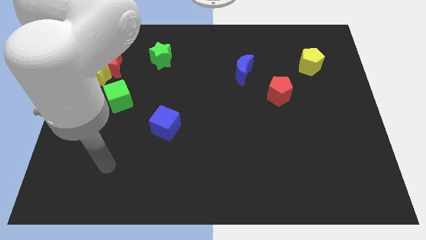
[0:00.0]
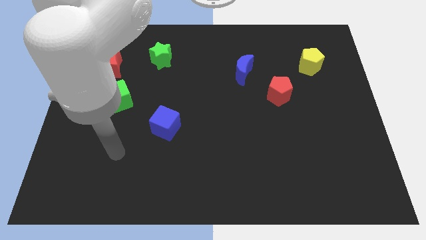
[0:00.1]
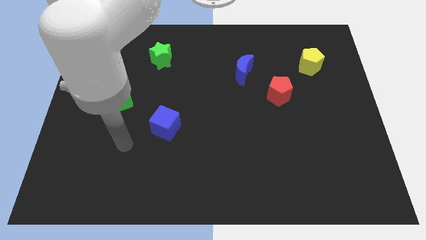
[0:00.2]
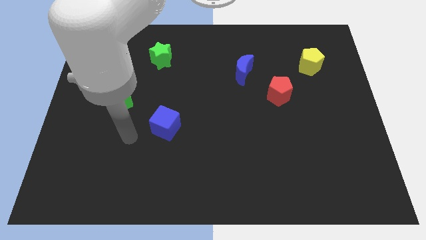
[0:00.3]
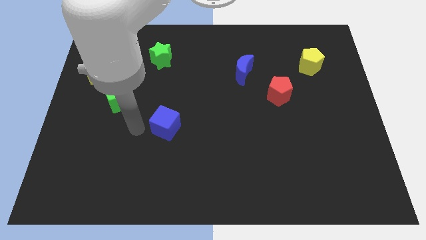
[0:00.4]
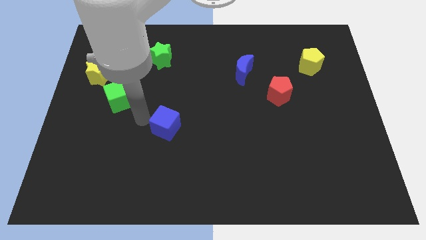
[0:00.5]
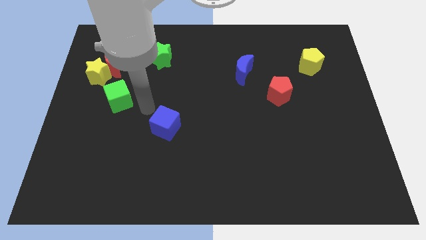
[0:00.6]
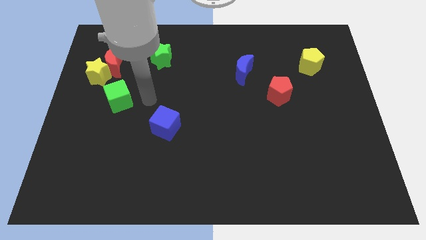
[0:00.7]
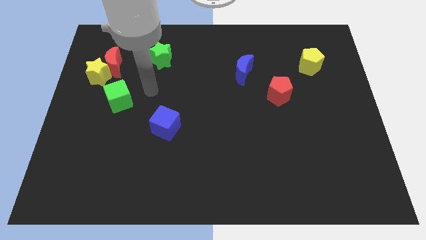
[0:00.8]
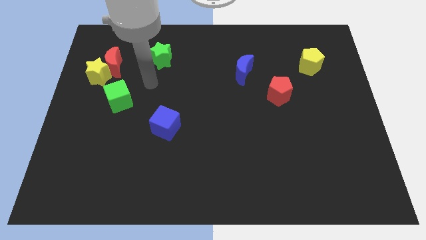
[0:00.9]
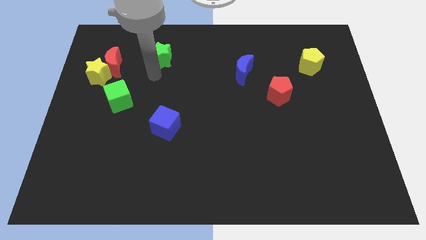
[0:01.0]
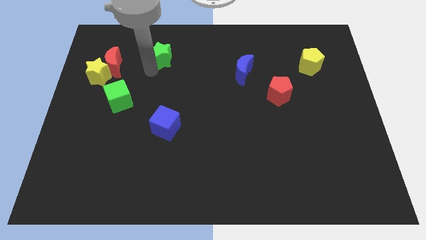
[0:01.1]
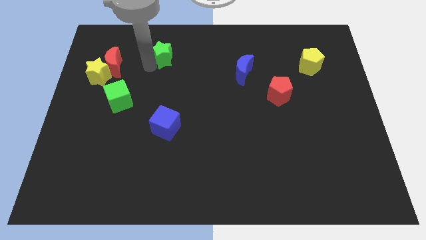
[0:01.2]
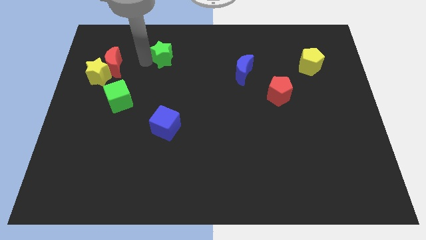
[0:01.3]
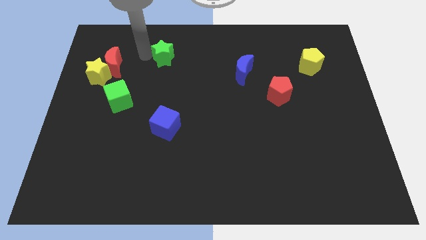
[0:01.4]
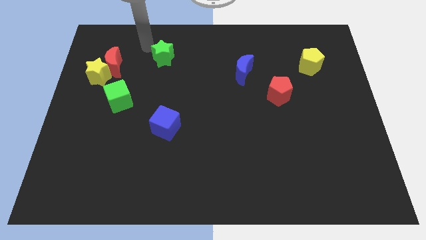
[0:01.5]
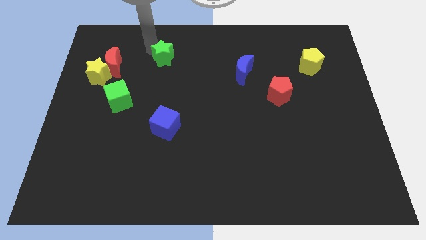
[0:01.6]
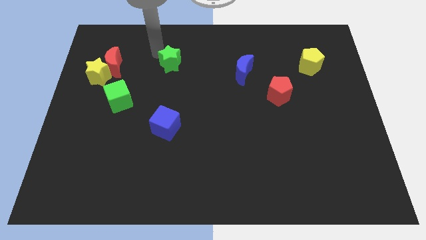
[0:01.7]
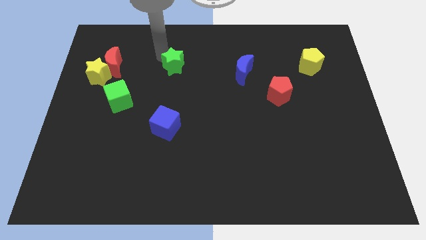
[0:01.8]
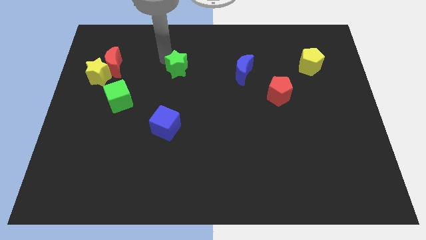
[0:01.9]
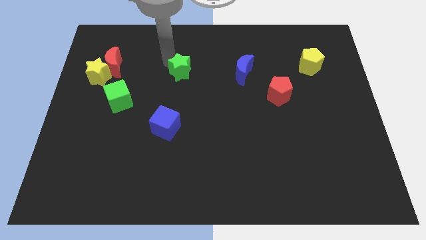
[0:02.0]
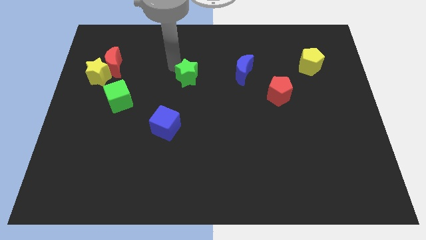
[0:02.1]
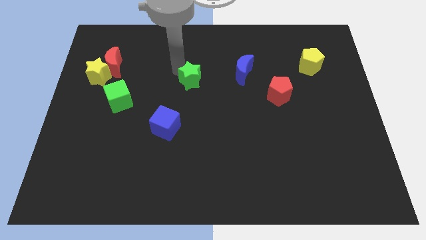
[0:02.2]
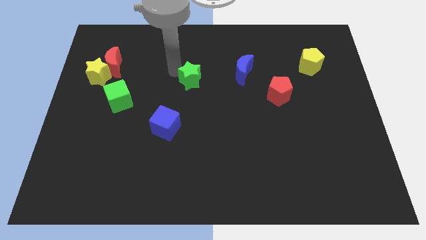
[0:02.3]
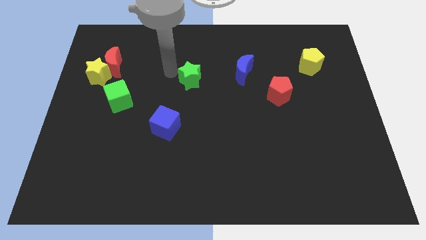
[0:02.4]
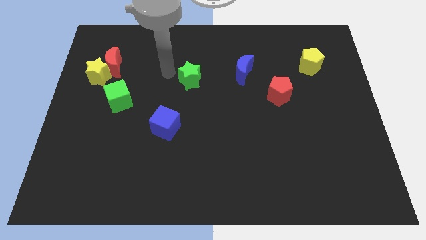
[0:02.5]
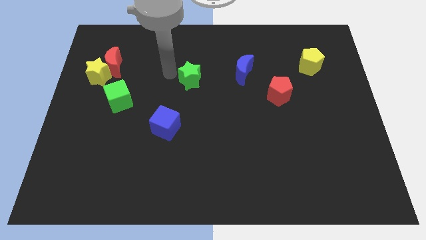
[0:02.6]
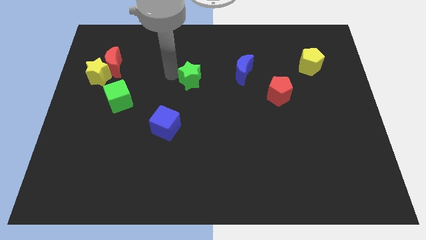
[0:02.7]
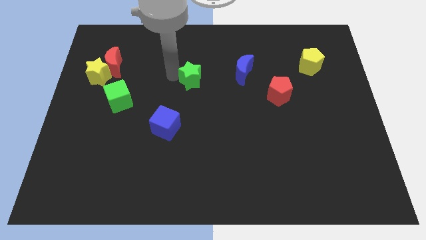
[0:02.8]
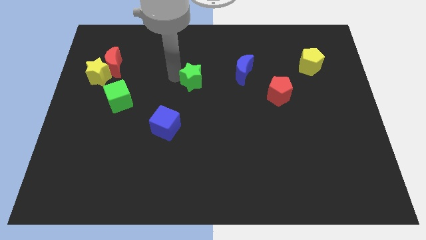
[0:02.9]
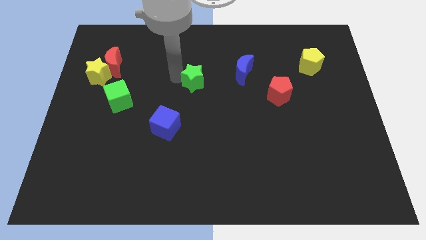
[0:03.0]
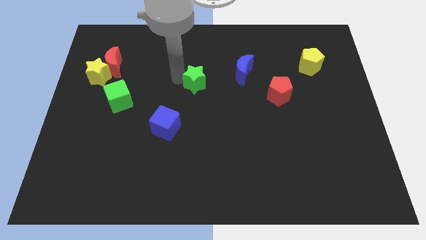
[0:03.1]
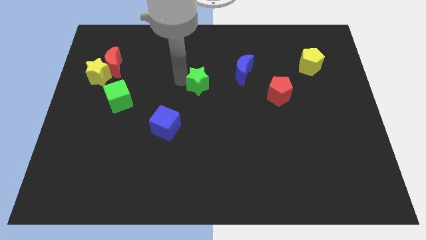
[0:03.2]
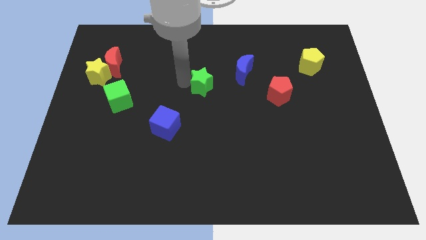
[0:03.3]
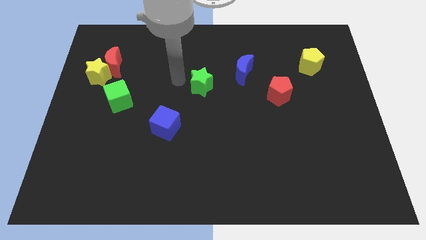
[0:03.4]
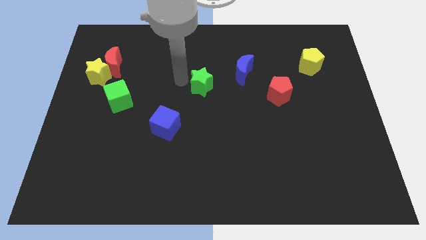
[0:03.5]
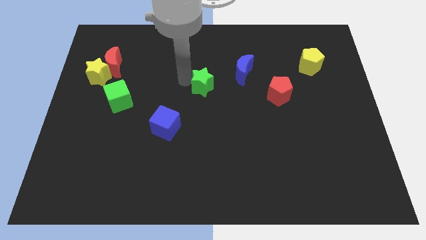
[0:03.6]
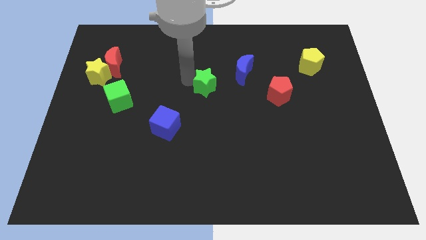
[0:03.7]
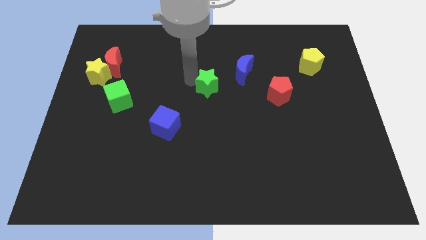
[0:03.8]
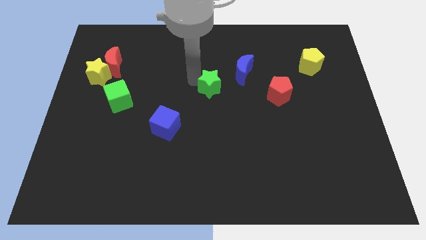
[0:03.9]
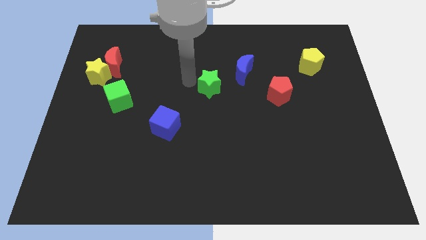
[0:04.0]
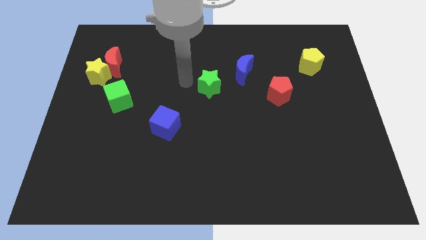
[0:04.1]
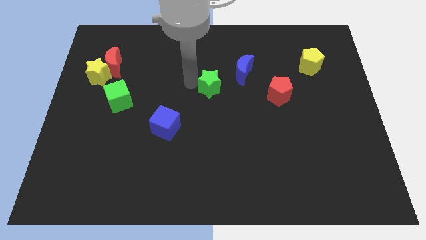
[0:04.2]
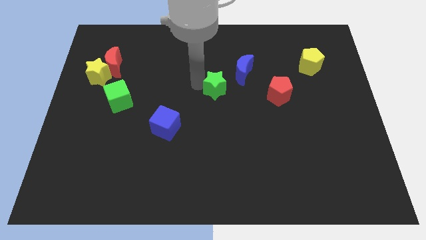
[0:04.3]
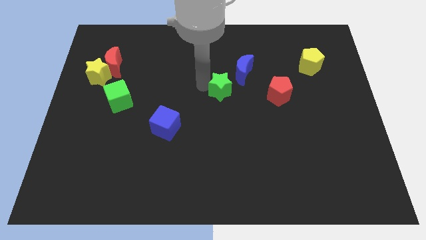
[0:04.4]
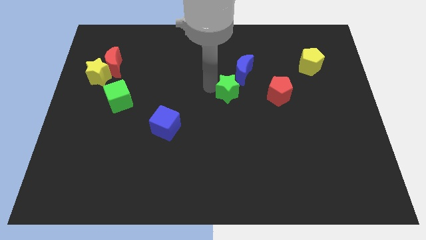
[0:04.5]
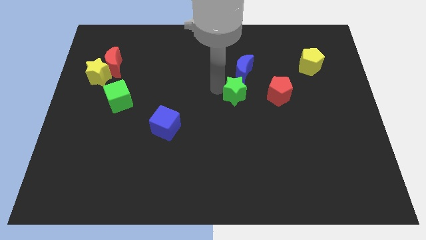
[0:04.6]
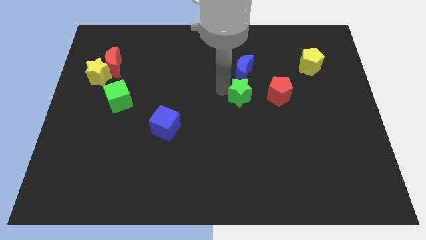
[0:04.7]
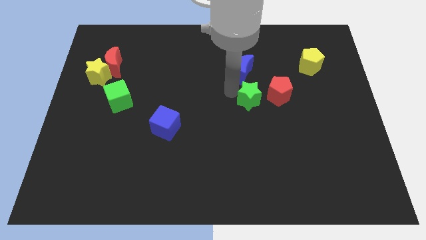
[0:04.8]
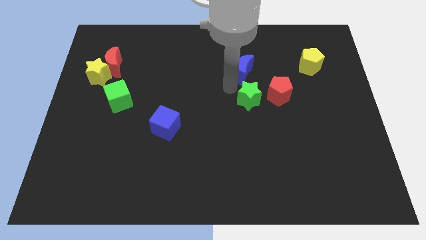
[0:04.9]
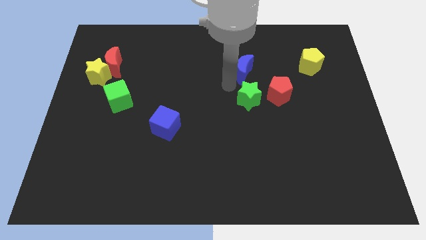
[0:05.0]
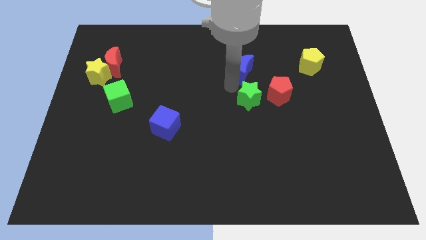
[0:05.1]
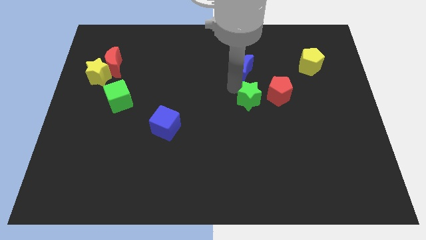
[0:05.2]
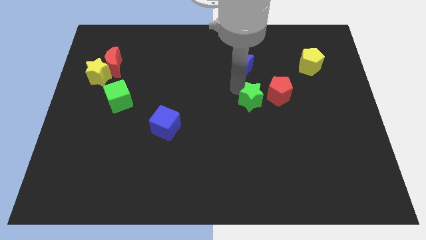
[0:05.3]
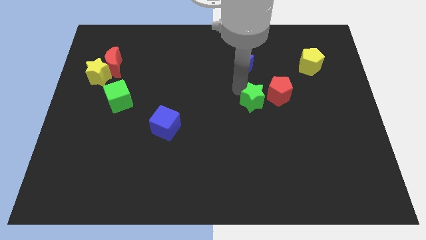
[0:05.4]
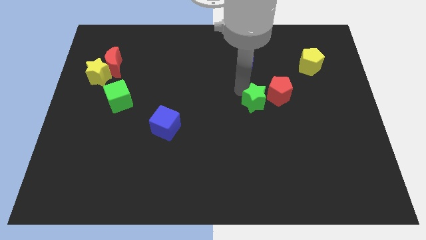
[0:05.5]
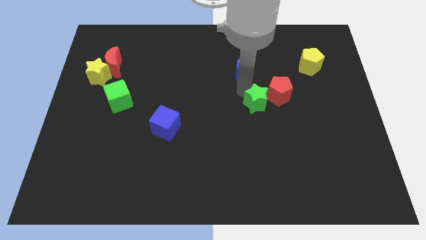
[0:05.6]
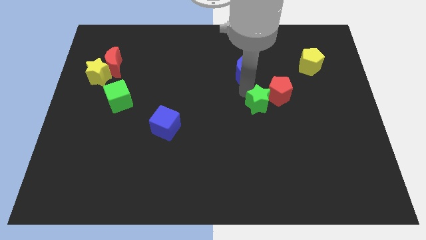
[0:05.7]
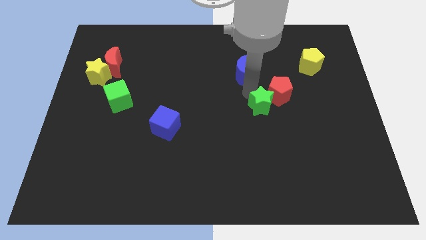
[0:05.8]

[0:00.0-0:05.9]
slide the green star below the red pentagon

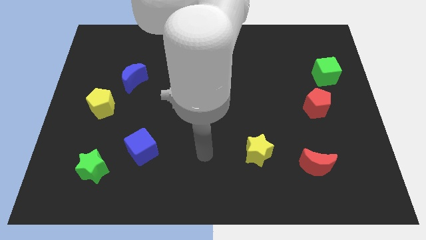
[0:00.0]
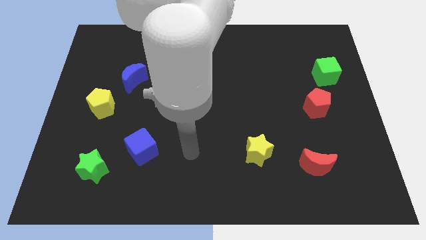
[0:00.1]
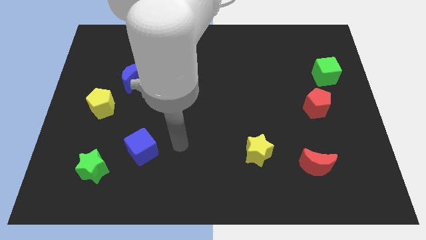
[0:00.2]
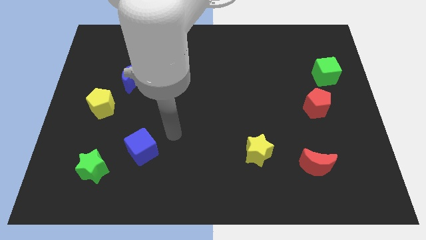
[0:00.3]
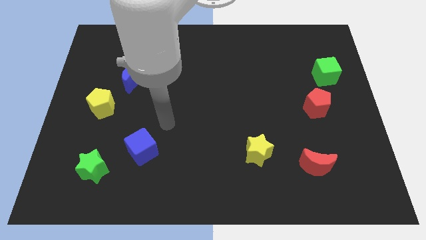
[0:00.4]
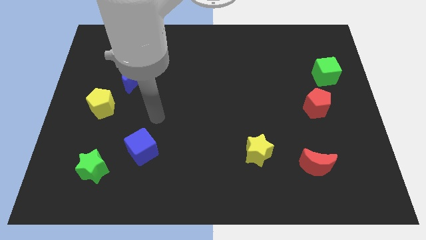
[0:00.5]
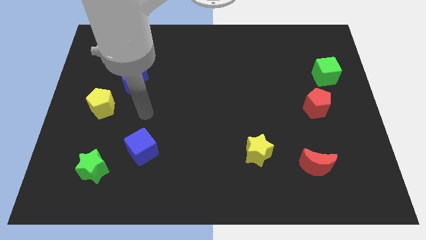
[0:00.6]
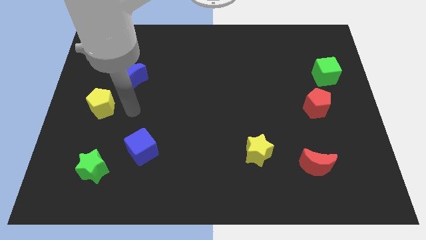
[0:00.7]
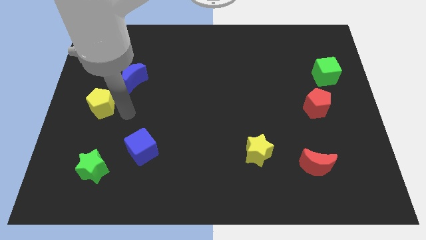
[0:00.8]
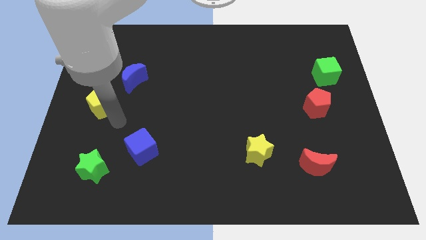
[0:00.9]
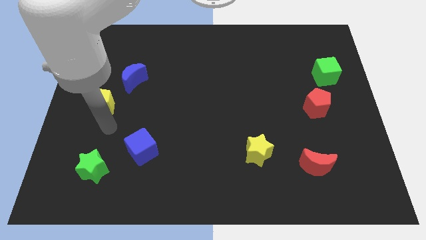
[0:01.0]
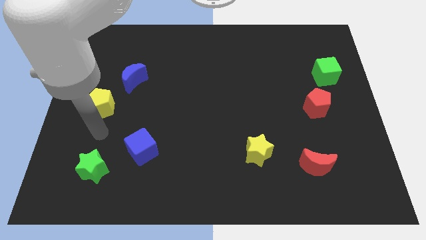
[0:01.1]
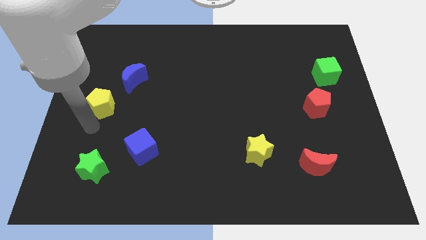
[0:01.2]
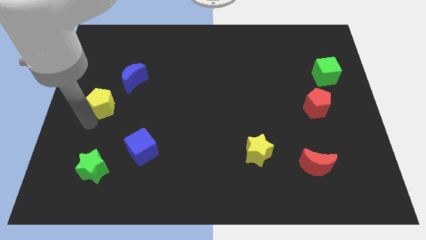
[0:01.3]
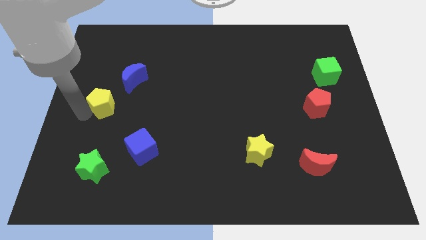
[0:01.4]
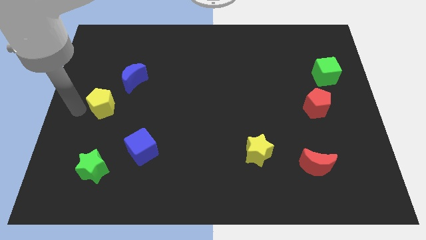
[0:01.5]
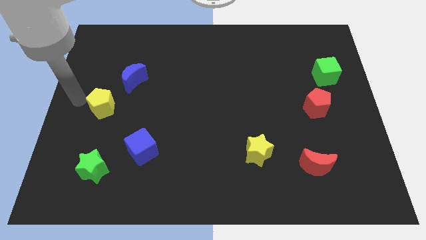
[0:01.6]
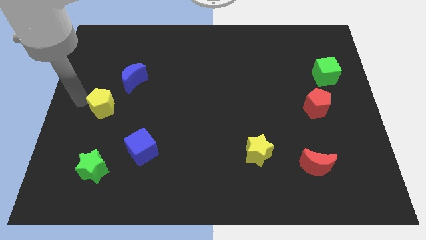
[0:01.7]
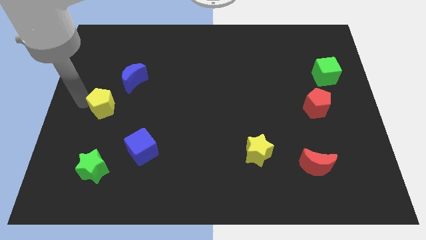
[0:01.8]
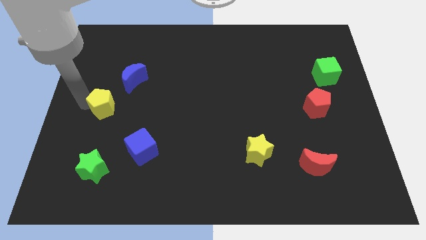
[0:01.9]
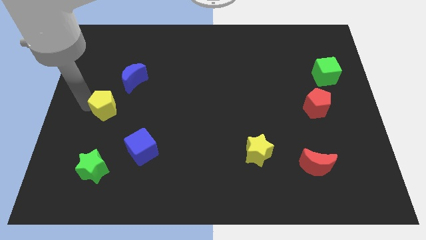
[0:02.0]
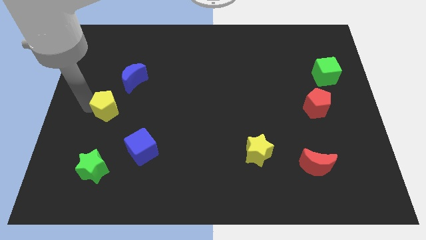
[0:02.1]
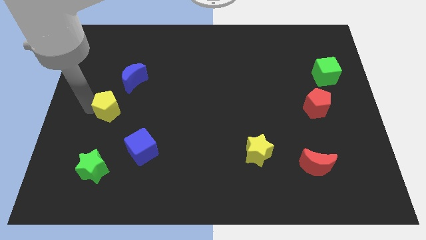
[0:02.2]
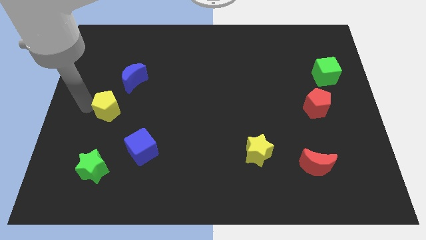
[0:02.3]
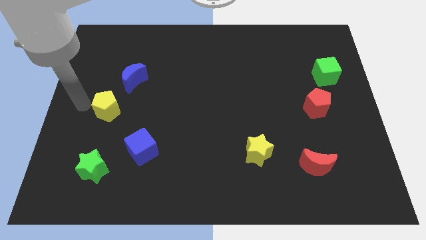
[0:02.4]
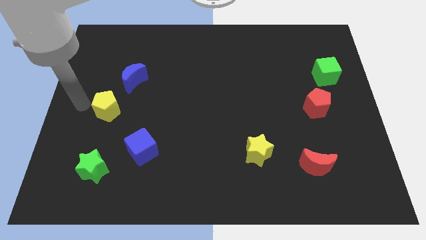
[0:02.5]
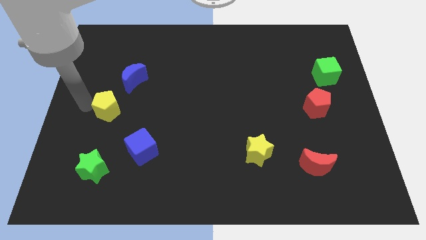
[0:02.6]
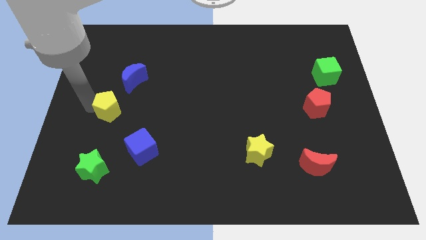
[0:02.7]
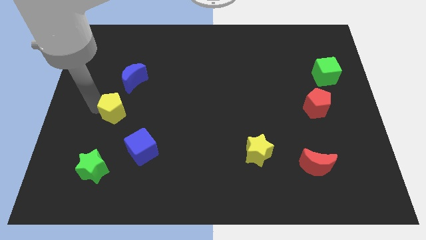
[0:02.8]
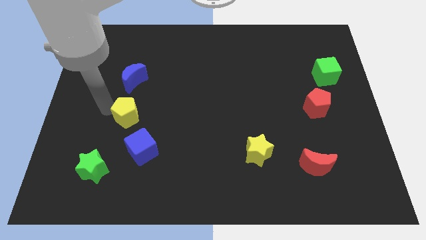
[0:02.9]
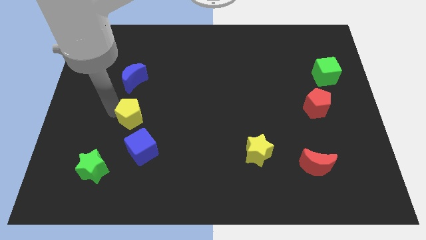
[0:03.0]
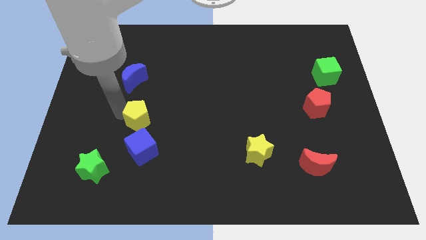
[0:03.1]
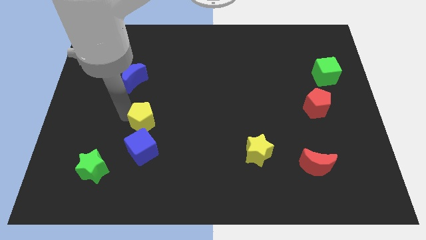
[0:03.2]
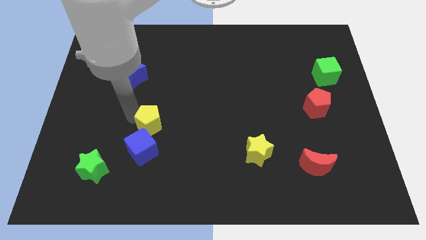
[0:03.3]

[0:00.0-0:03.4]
put the yellow pentagon to the top right side of the blue cube
